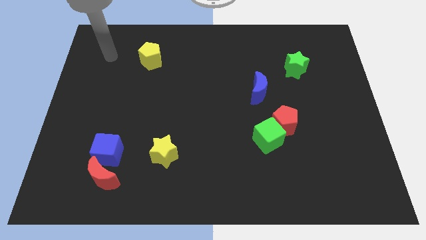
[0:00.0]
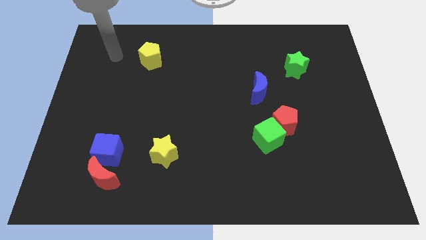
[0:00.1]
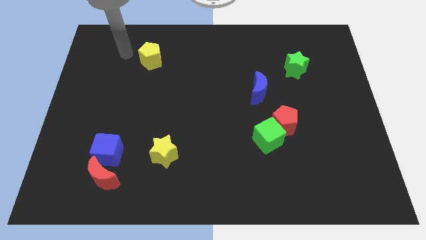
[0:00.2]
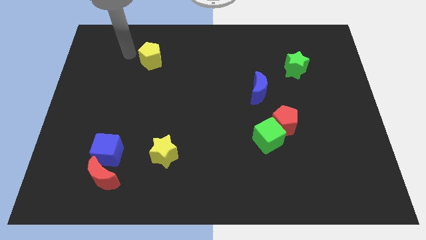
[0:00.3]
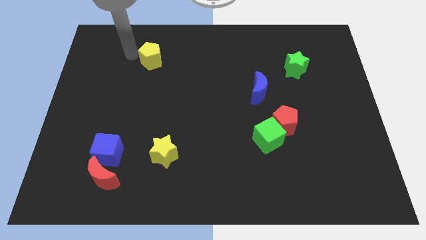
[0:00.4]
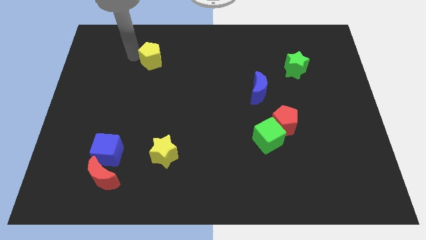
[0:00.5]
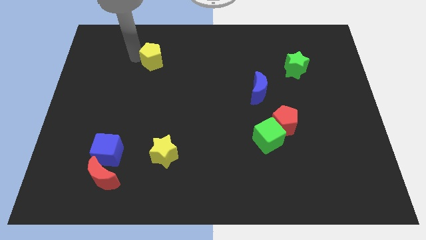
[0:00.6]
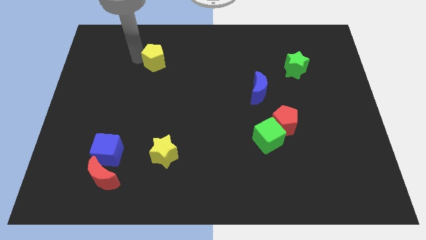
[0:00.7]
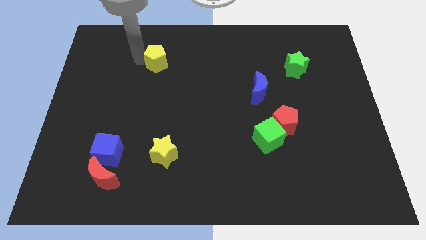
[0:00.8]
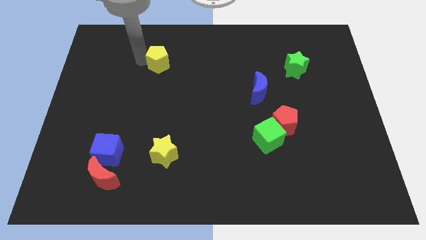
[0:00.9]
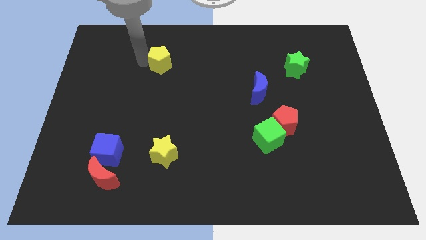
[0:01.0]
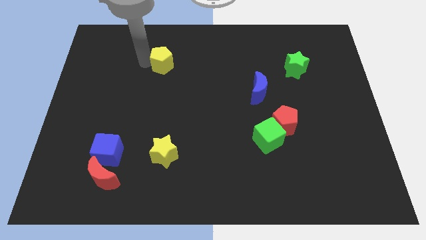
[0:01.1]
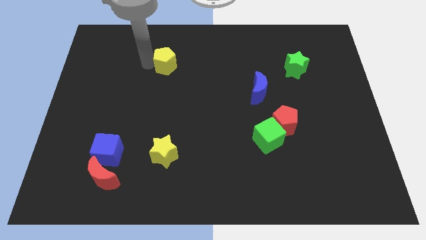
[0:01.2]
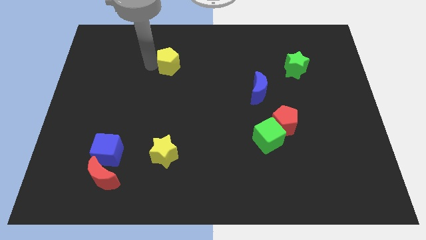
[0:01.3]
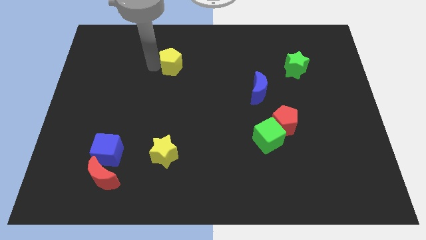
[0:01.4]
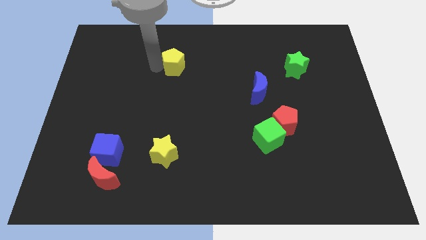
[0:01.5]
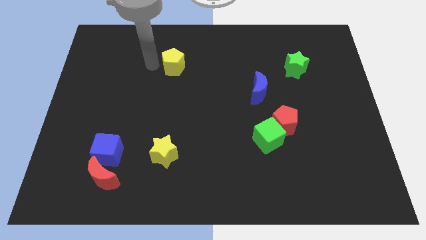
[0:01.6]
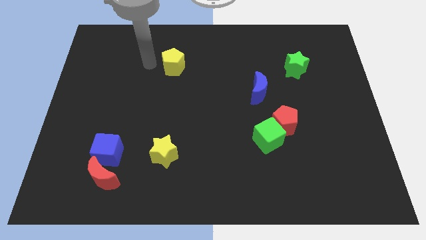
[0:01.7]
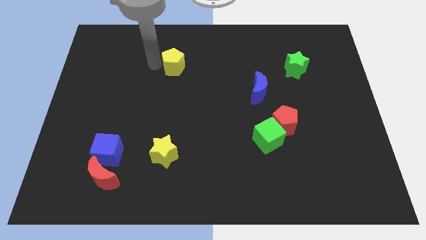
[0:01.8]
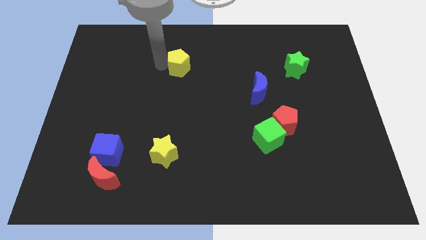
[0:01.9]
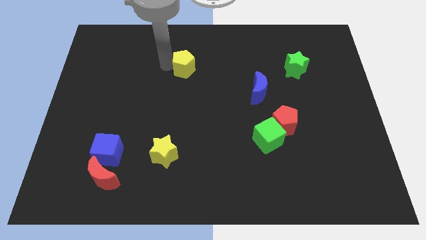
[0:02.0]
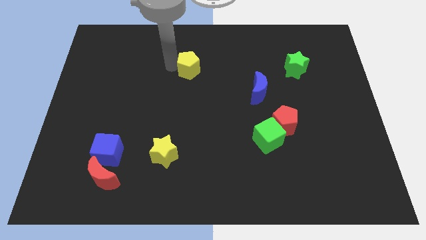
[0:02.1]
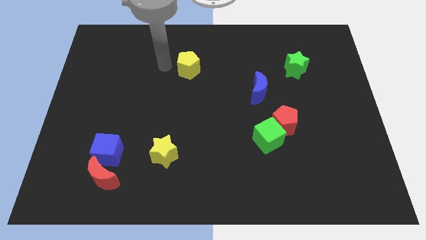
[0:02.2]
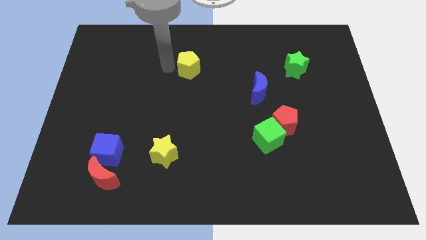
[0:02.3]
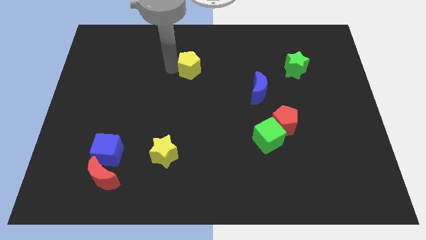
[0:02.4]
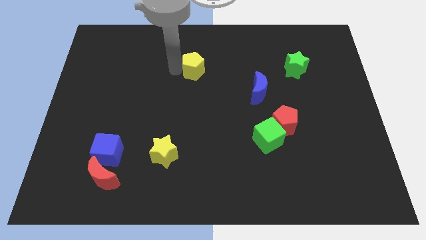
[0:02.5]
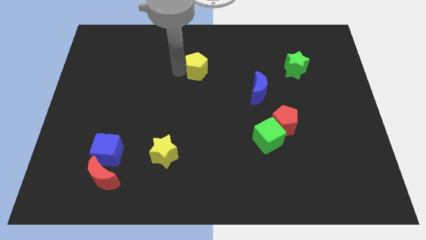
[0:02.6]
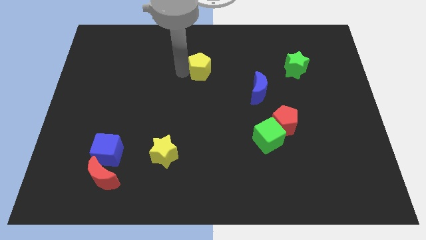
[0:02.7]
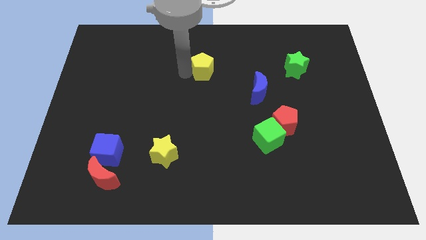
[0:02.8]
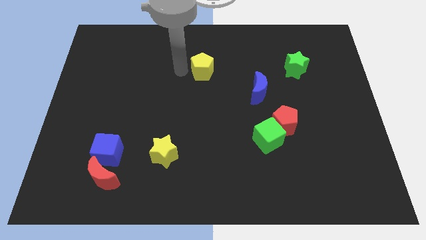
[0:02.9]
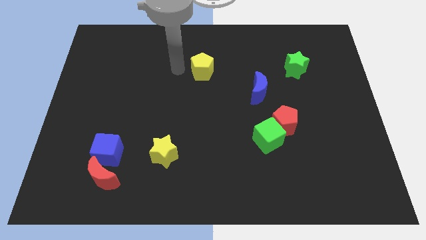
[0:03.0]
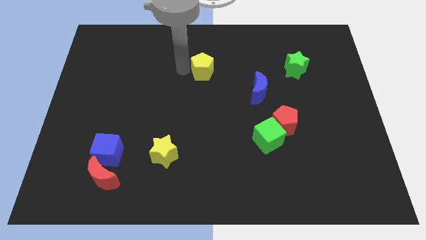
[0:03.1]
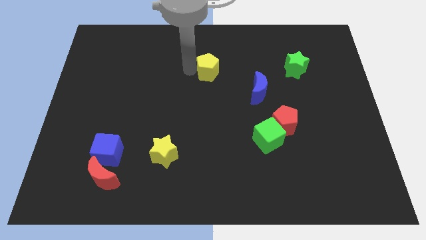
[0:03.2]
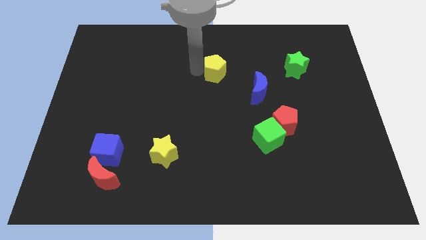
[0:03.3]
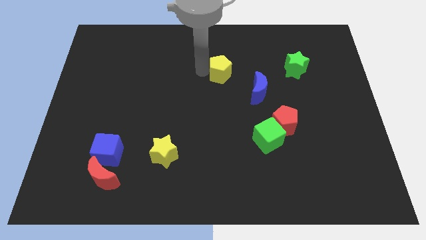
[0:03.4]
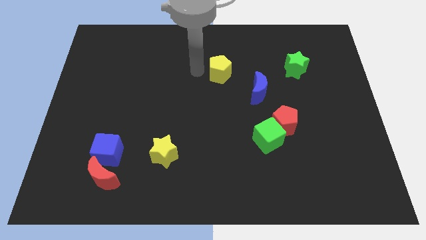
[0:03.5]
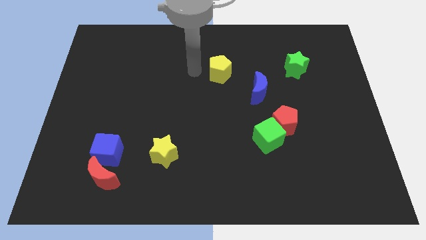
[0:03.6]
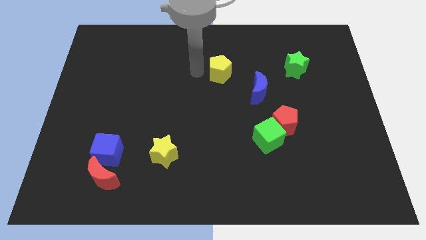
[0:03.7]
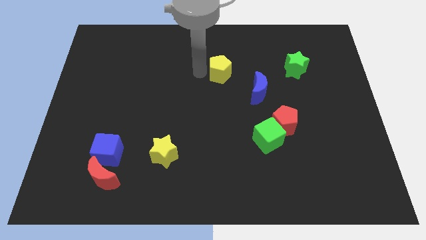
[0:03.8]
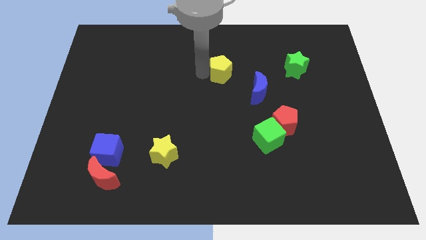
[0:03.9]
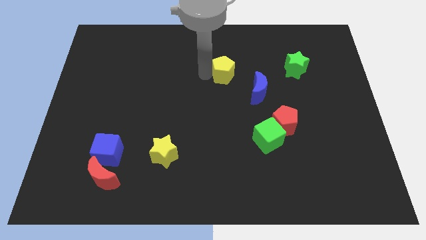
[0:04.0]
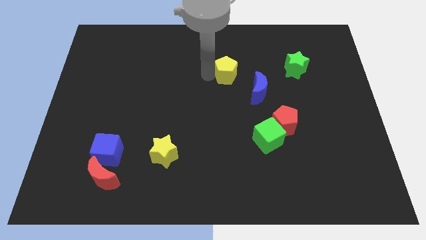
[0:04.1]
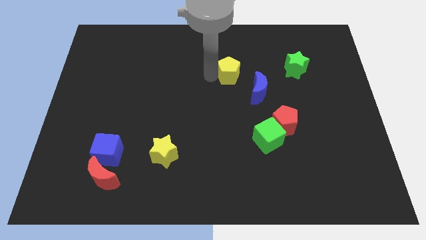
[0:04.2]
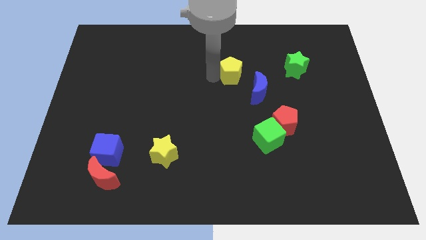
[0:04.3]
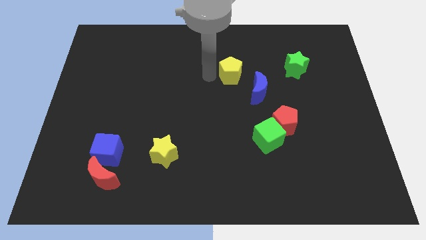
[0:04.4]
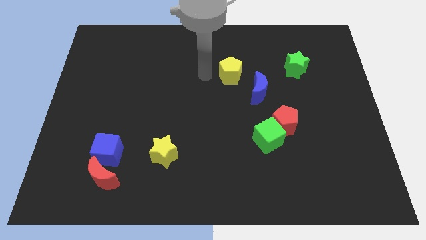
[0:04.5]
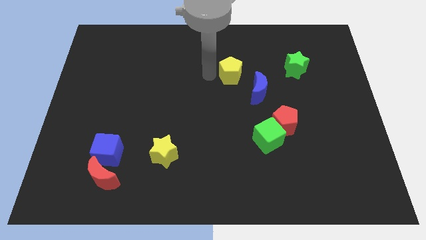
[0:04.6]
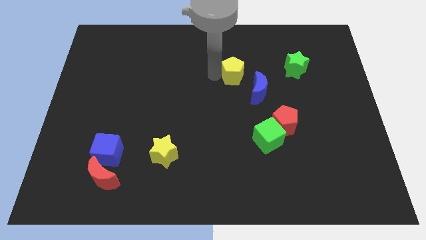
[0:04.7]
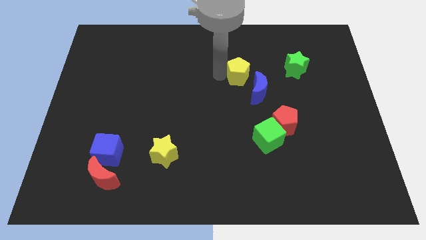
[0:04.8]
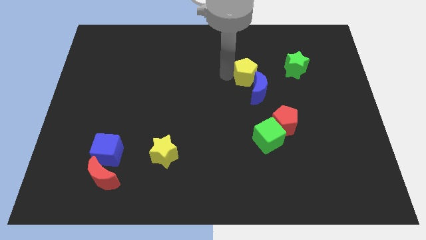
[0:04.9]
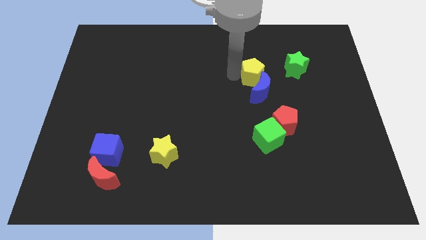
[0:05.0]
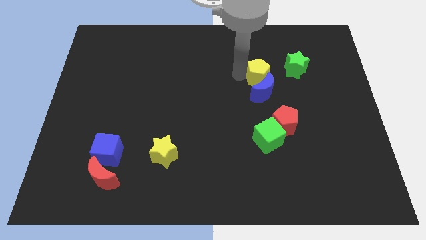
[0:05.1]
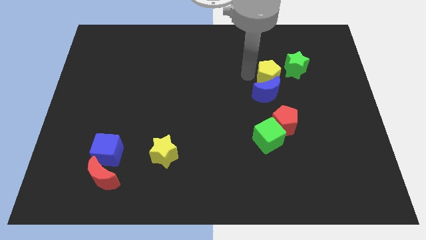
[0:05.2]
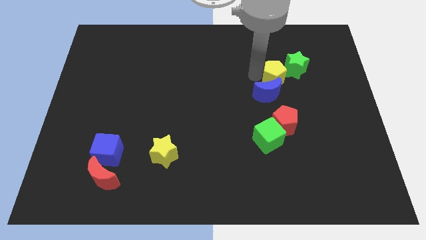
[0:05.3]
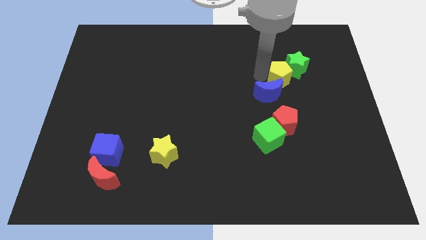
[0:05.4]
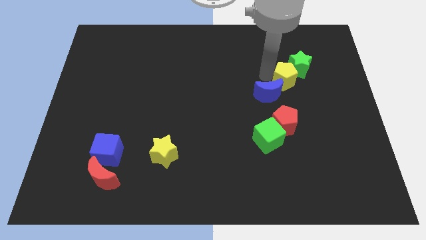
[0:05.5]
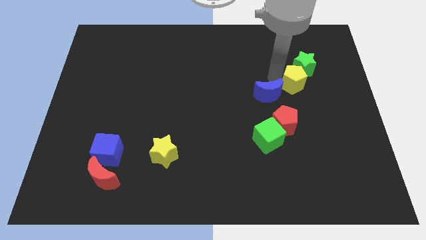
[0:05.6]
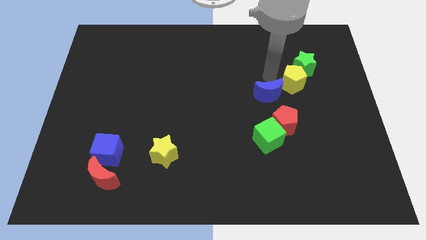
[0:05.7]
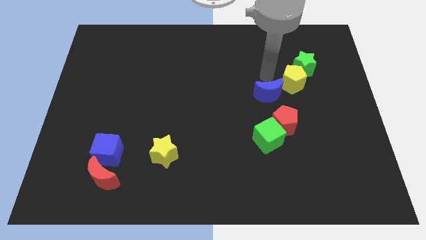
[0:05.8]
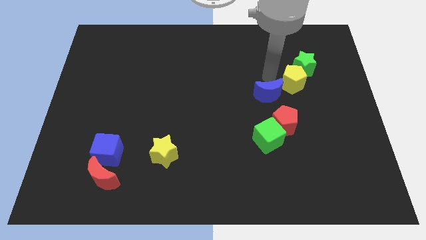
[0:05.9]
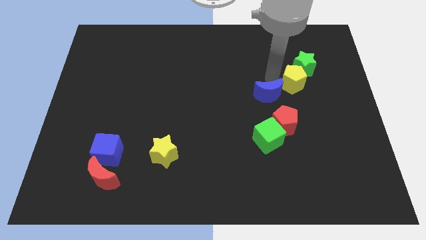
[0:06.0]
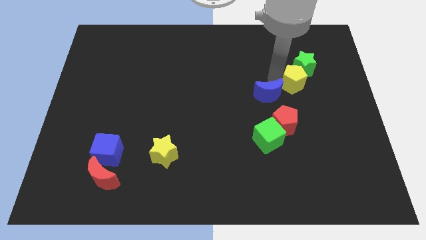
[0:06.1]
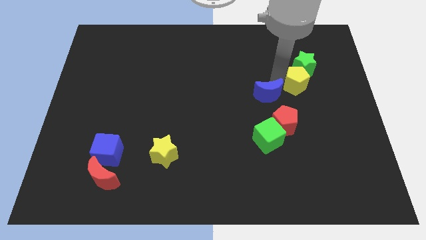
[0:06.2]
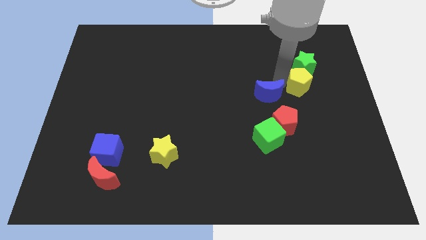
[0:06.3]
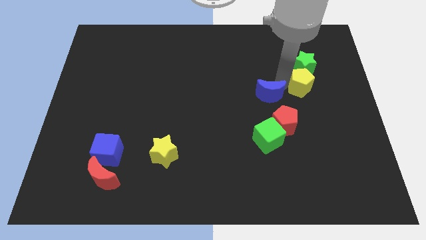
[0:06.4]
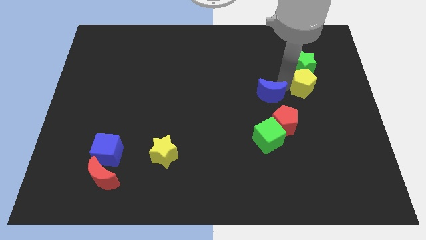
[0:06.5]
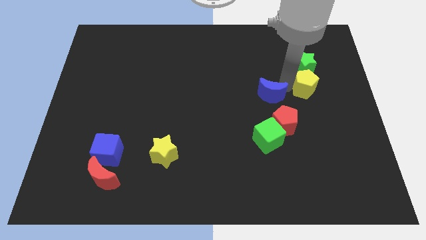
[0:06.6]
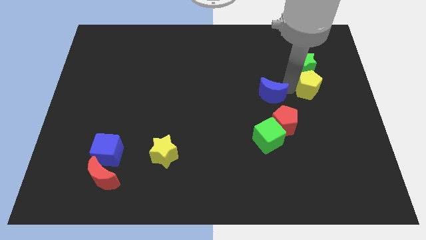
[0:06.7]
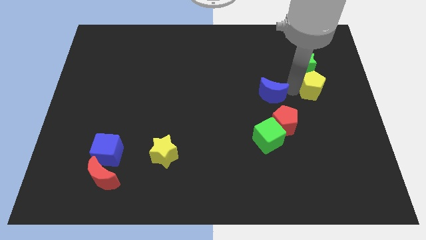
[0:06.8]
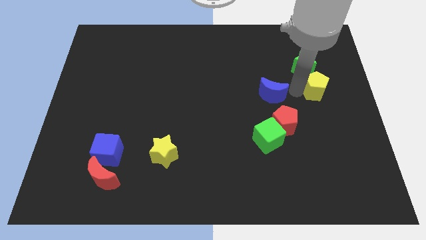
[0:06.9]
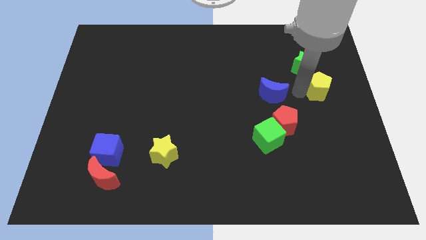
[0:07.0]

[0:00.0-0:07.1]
put the yellow pentagon to the right side of the board
